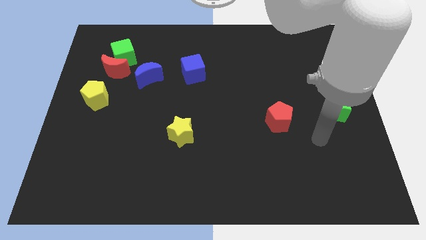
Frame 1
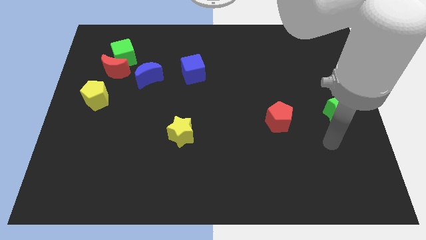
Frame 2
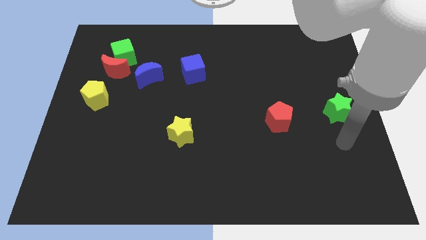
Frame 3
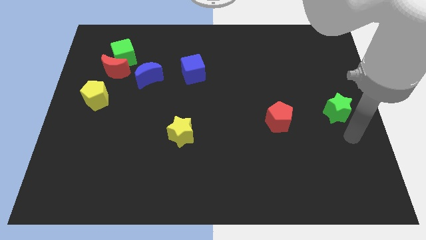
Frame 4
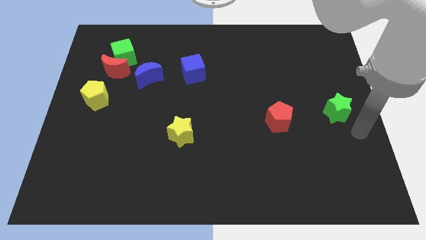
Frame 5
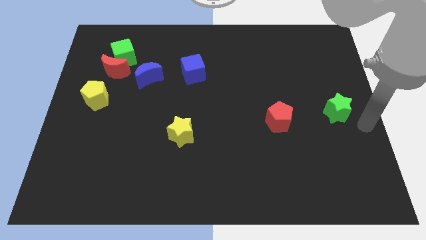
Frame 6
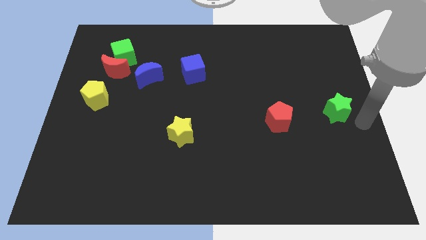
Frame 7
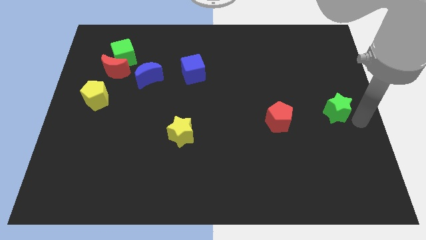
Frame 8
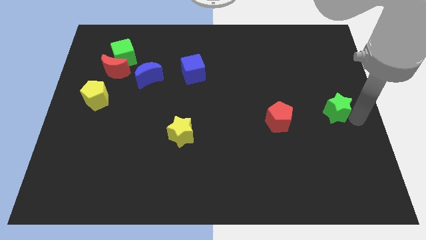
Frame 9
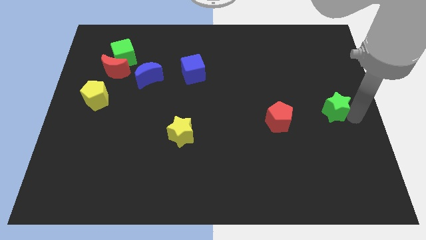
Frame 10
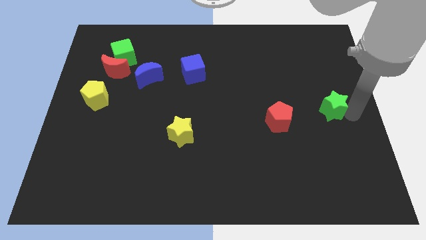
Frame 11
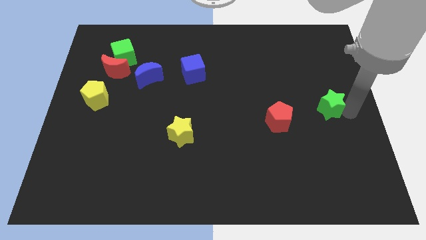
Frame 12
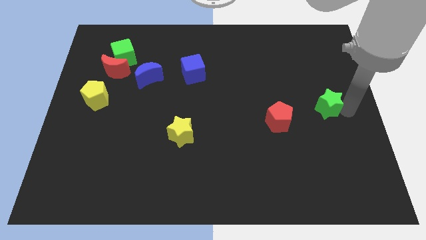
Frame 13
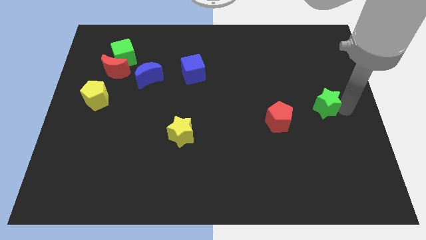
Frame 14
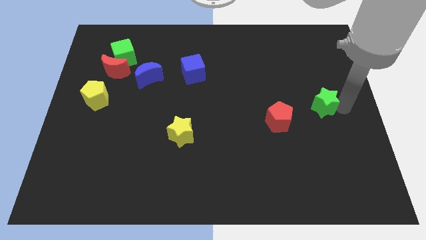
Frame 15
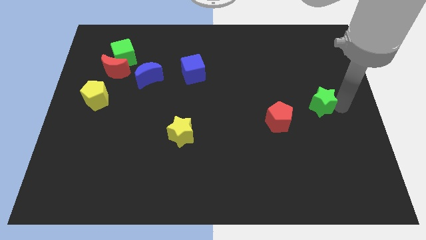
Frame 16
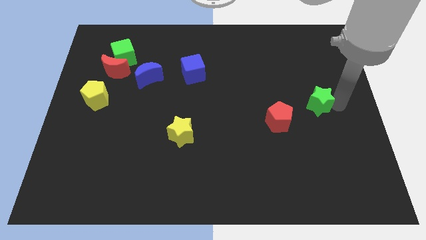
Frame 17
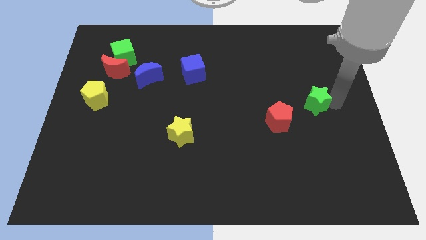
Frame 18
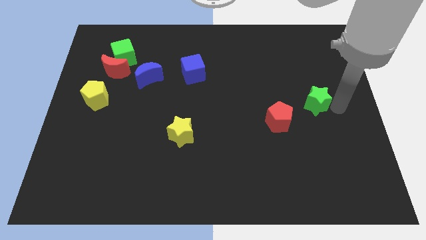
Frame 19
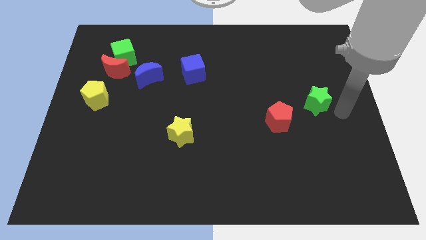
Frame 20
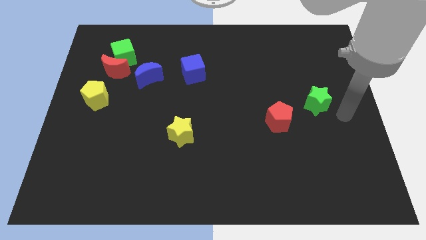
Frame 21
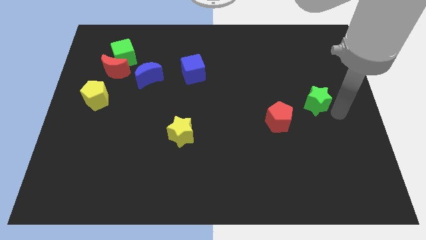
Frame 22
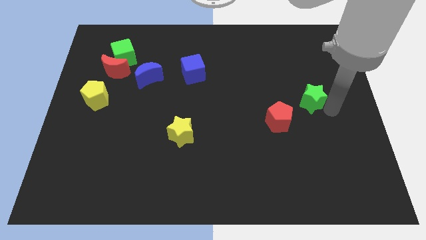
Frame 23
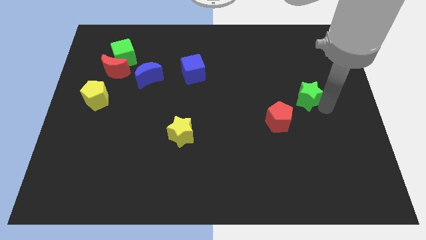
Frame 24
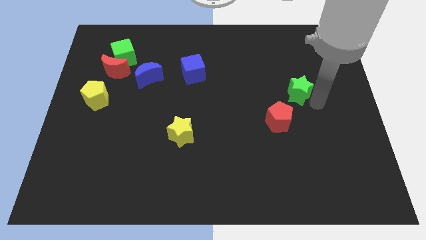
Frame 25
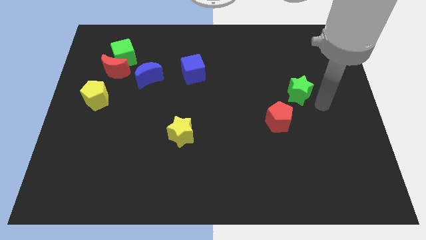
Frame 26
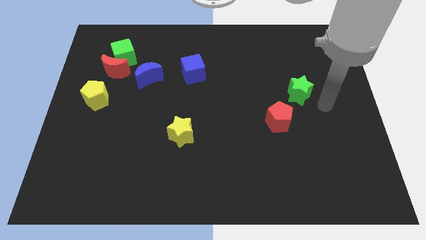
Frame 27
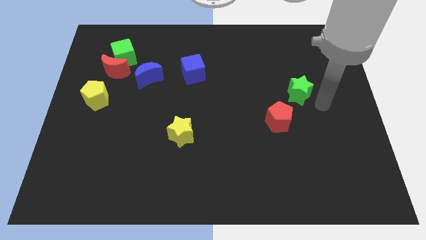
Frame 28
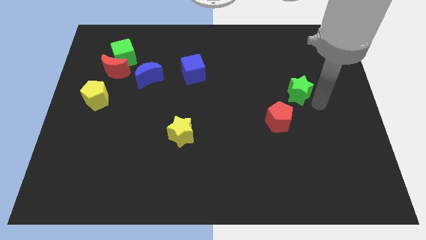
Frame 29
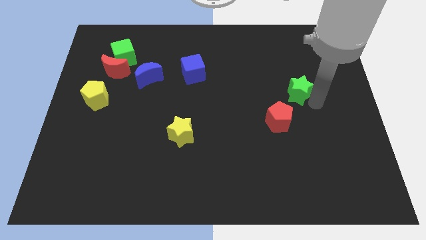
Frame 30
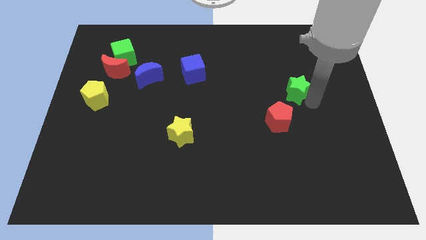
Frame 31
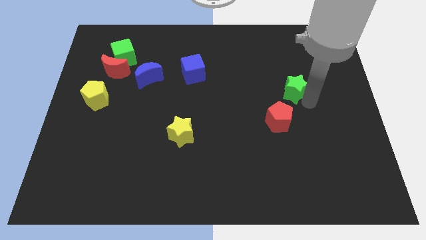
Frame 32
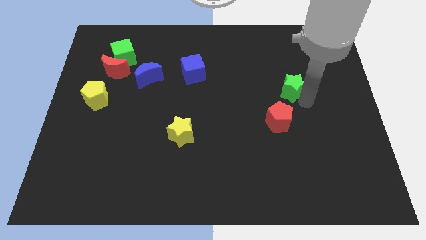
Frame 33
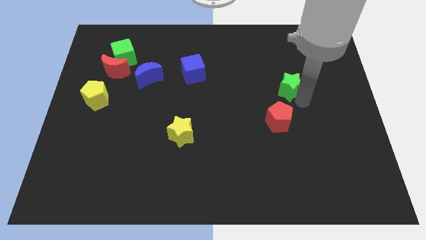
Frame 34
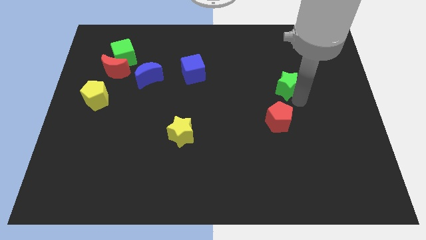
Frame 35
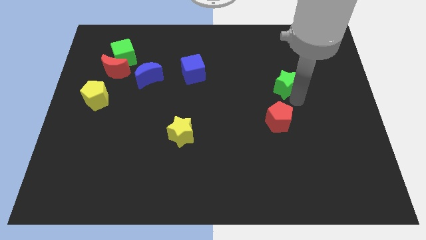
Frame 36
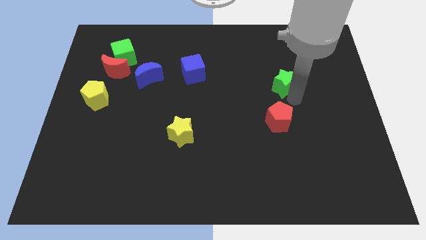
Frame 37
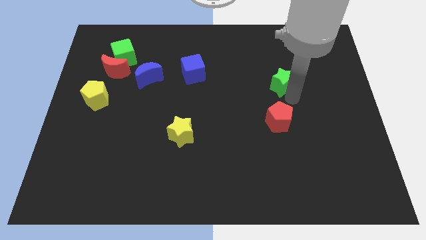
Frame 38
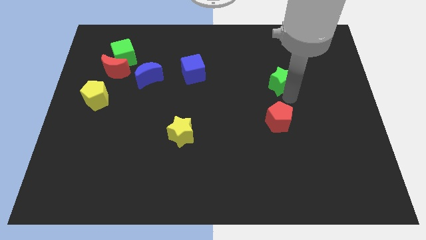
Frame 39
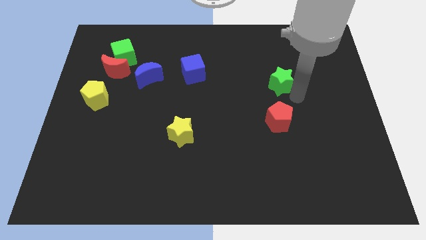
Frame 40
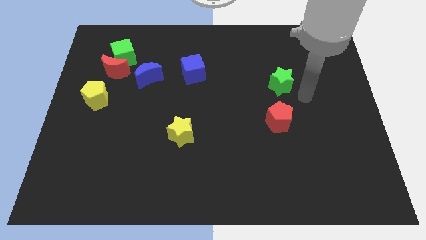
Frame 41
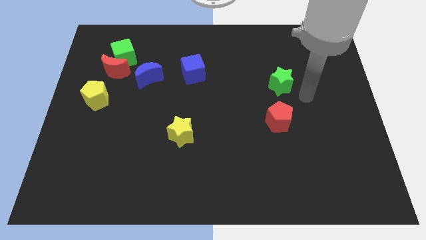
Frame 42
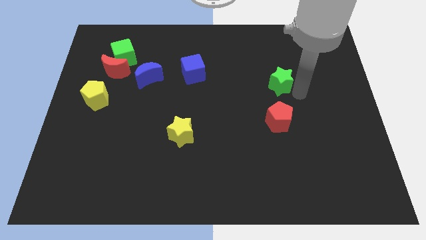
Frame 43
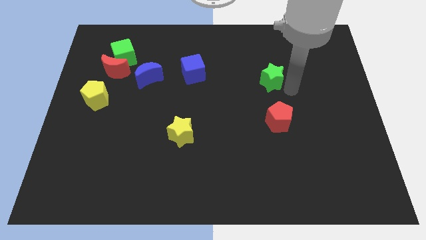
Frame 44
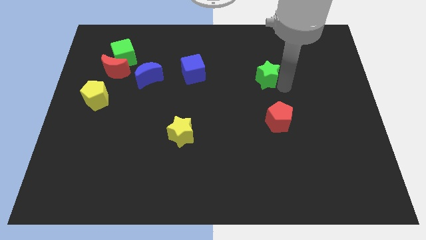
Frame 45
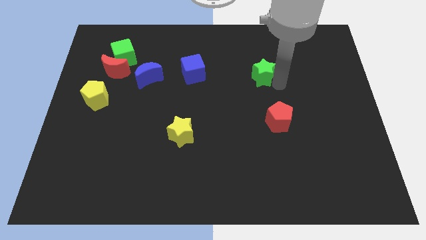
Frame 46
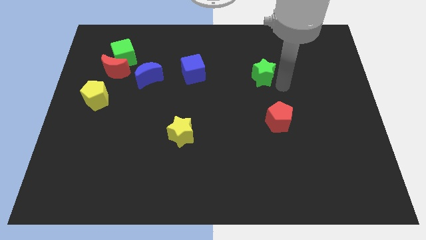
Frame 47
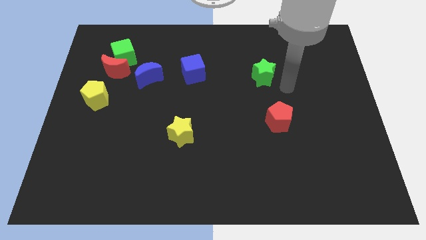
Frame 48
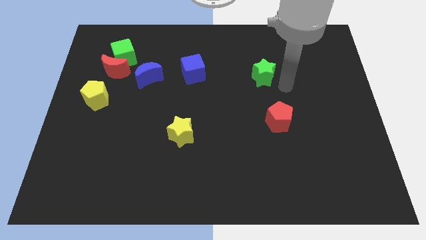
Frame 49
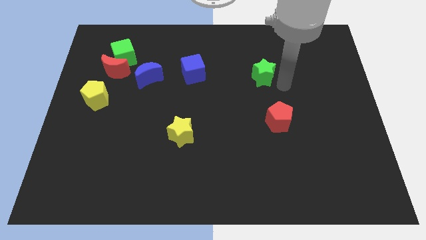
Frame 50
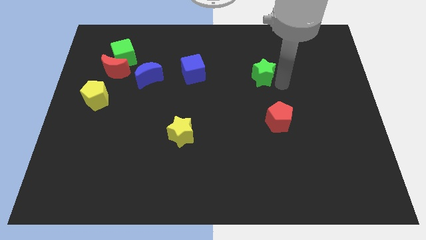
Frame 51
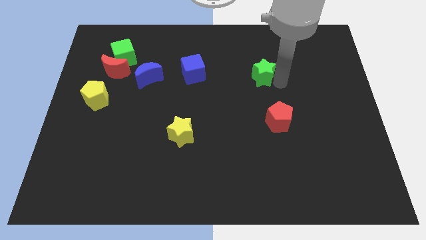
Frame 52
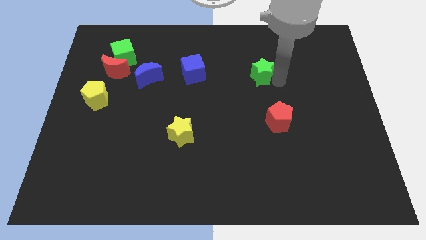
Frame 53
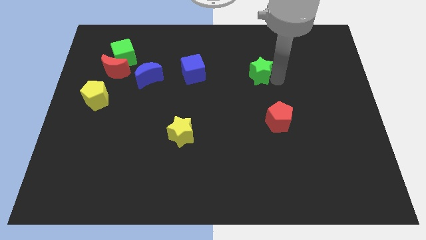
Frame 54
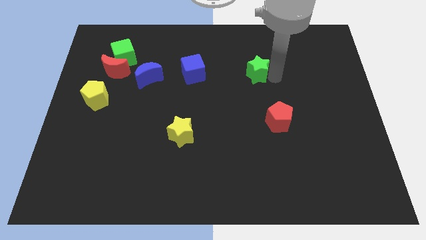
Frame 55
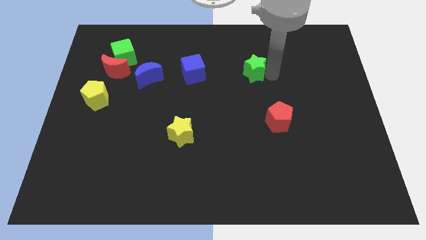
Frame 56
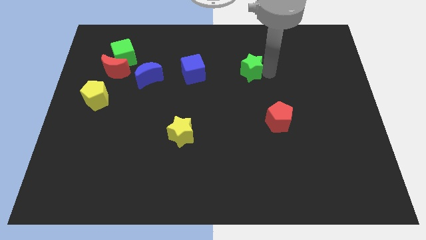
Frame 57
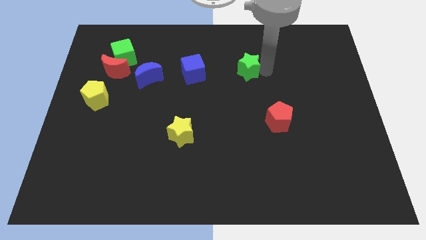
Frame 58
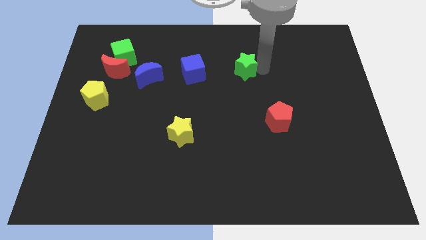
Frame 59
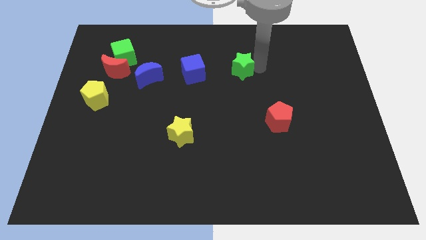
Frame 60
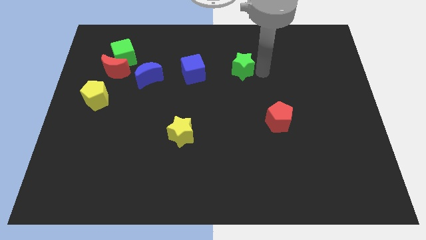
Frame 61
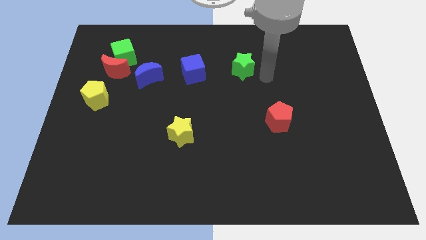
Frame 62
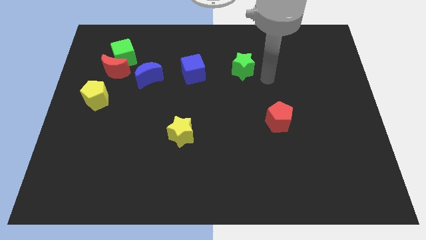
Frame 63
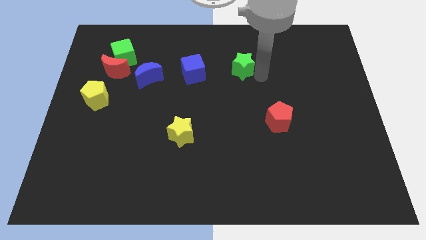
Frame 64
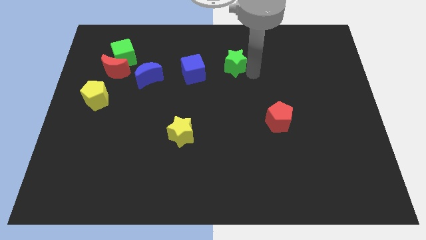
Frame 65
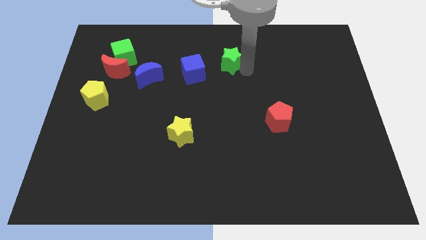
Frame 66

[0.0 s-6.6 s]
move the green star diagonally up and to the right of the blue cube
